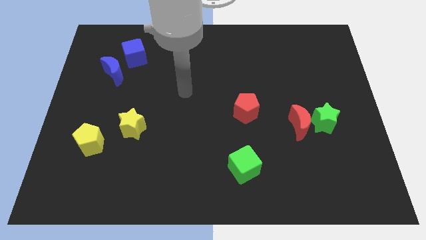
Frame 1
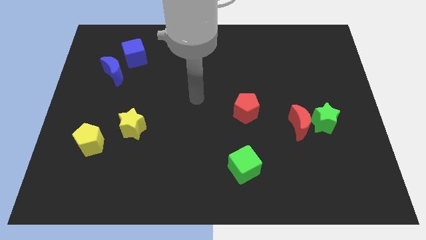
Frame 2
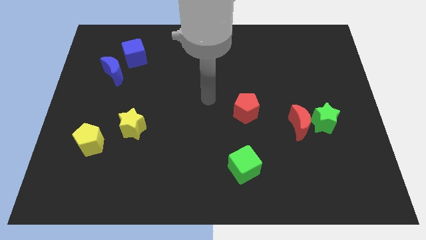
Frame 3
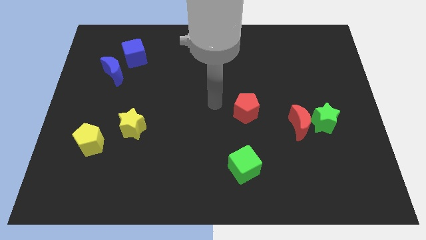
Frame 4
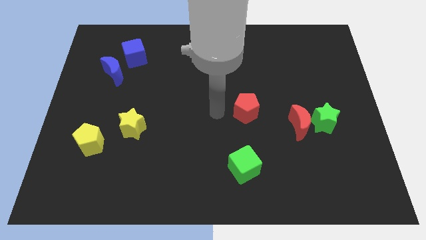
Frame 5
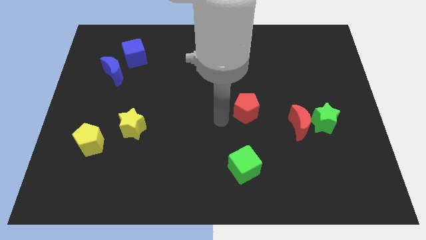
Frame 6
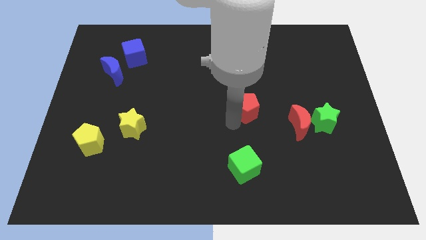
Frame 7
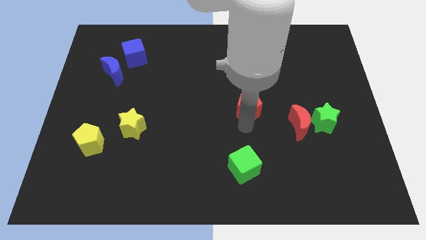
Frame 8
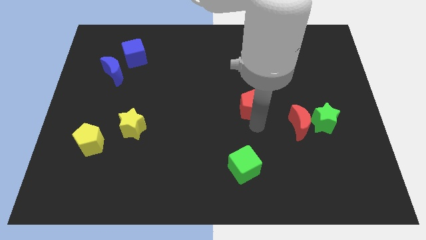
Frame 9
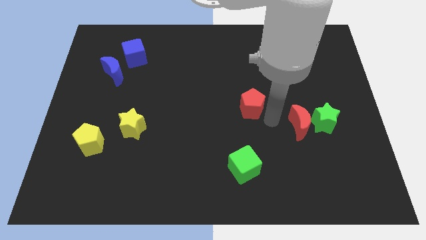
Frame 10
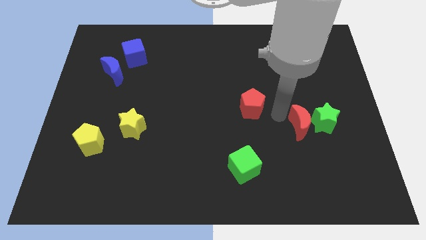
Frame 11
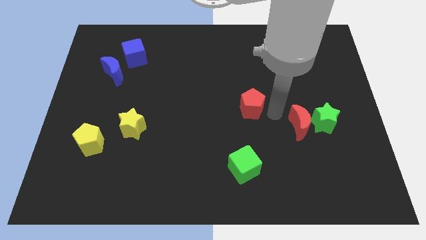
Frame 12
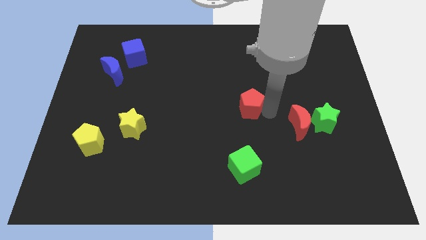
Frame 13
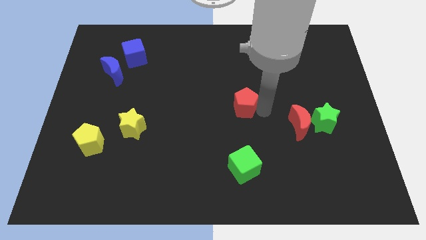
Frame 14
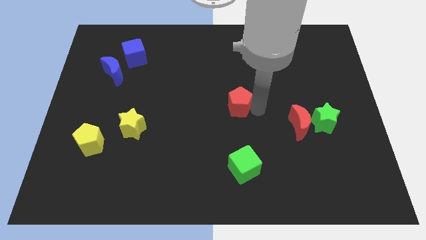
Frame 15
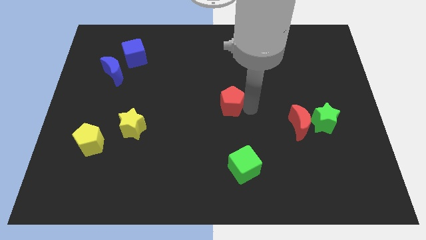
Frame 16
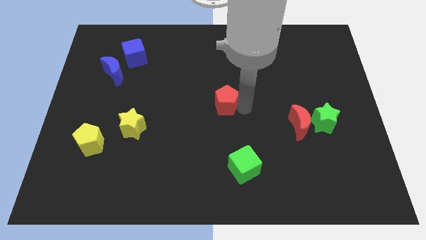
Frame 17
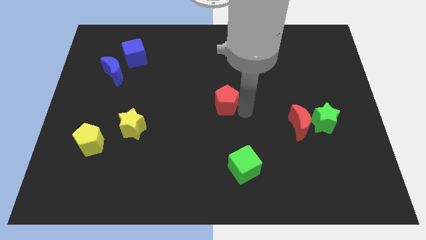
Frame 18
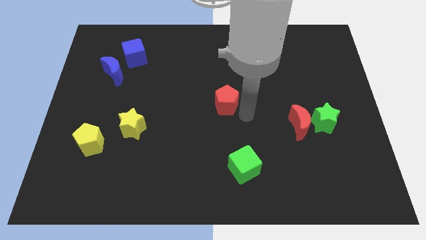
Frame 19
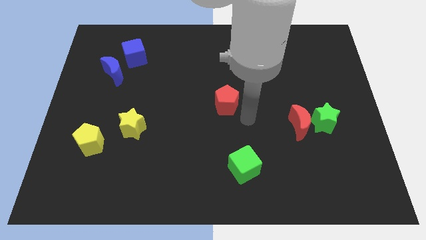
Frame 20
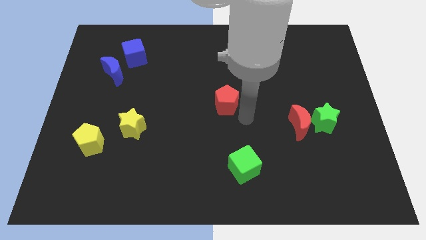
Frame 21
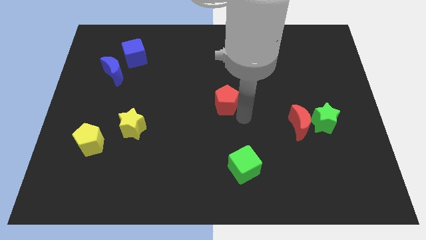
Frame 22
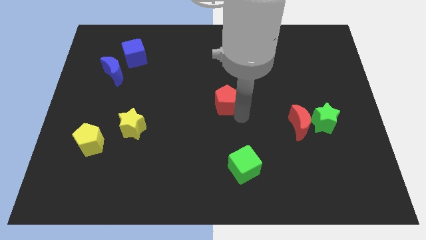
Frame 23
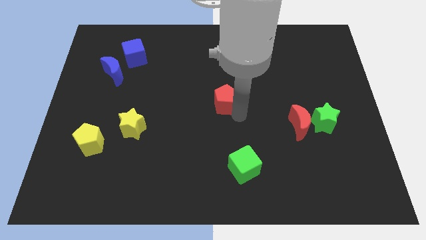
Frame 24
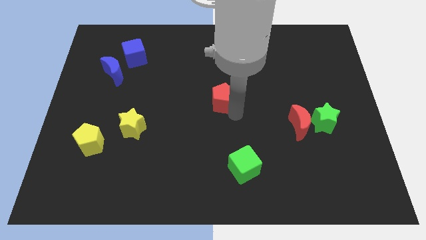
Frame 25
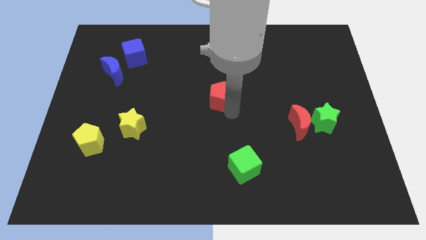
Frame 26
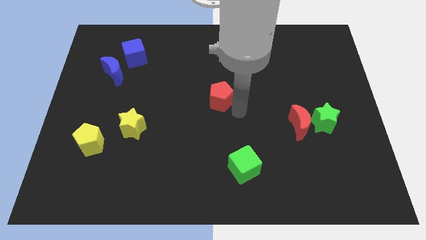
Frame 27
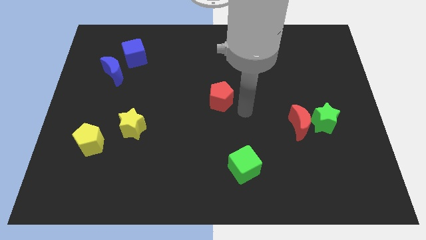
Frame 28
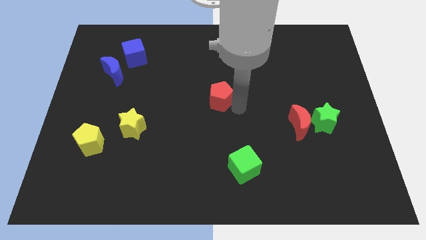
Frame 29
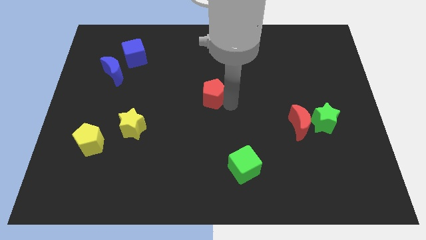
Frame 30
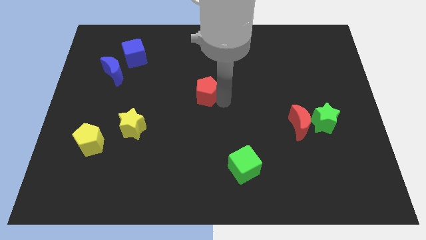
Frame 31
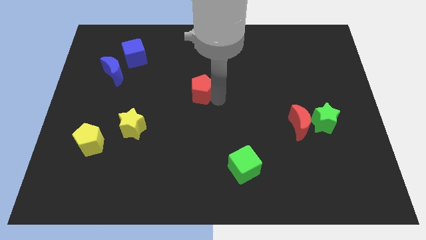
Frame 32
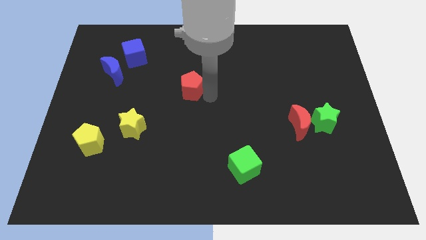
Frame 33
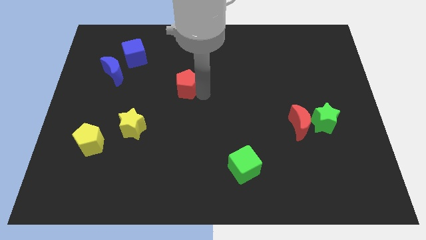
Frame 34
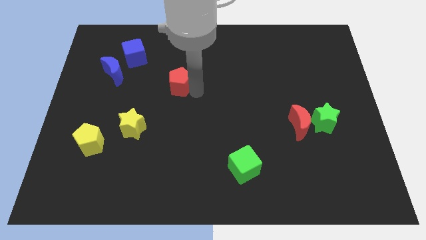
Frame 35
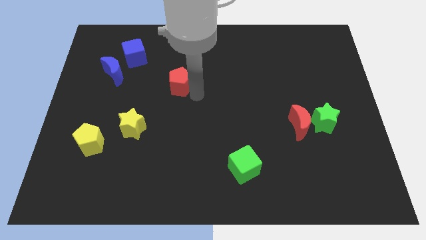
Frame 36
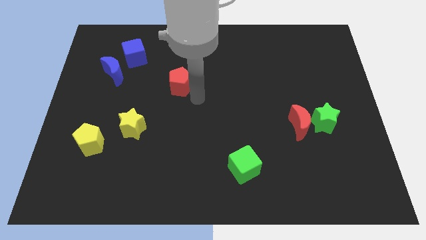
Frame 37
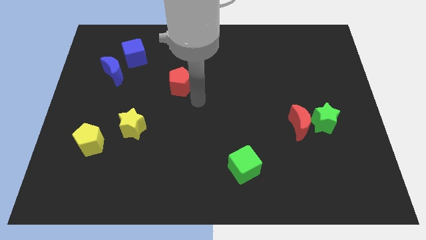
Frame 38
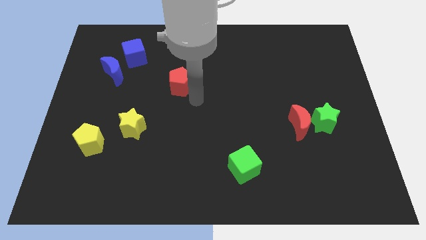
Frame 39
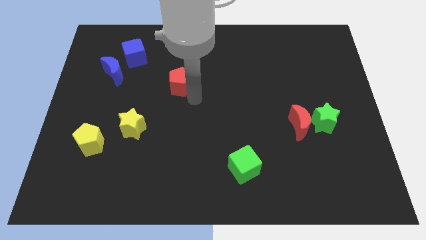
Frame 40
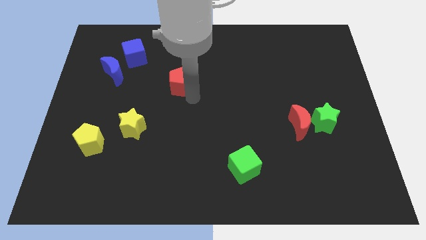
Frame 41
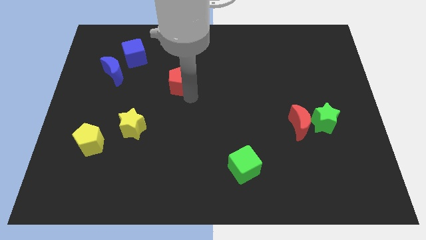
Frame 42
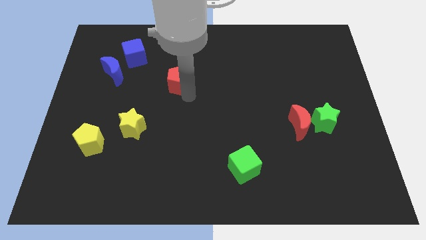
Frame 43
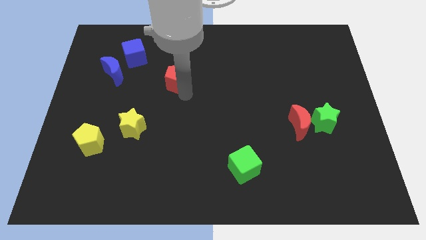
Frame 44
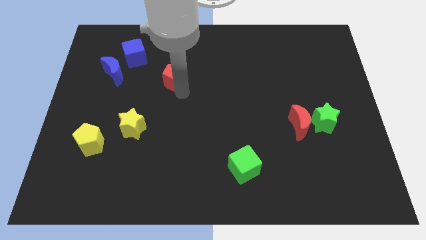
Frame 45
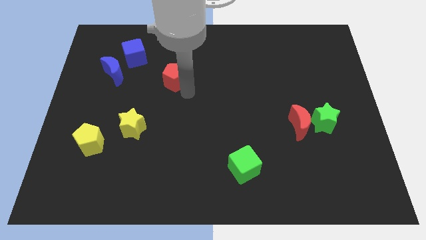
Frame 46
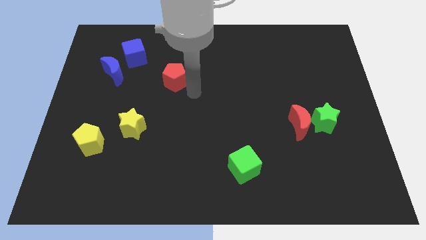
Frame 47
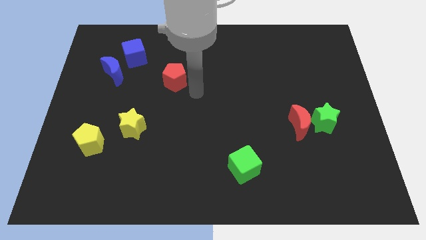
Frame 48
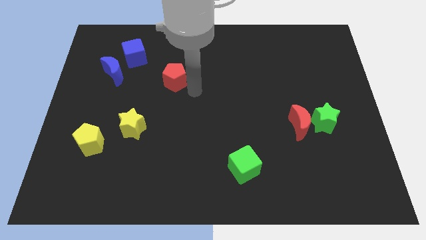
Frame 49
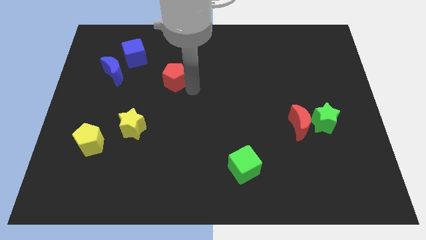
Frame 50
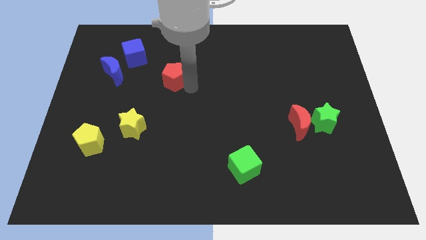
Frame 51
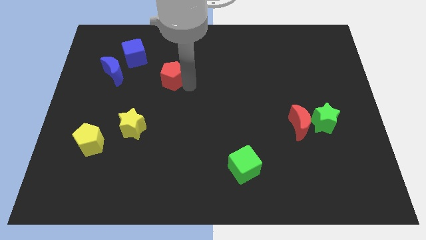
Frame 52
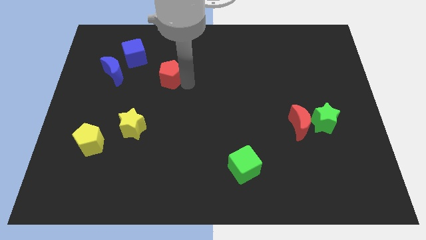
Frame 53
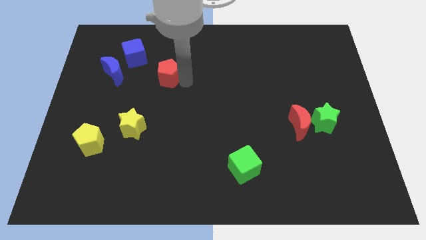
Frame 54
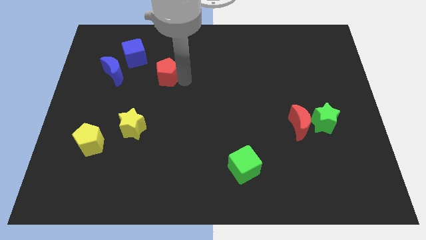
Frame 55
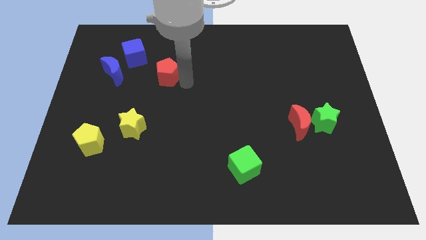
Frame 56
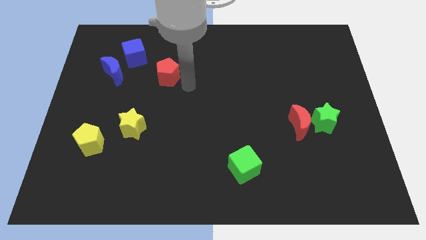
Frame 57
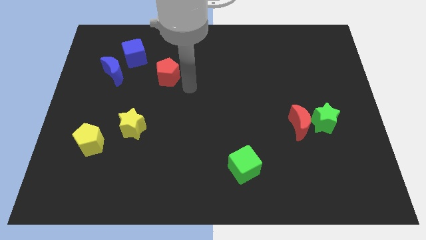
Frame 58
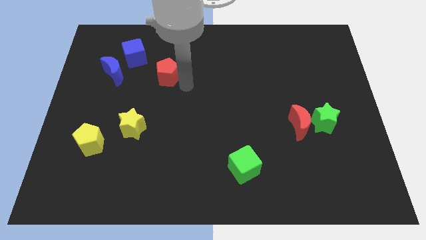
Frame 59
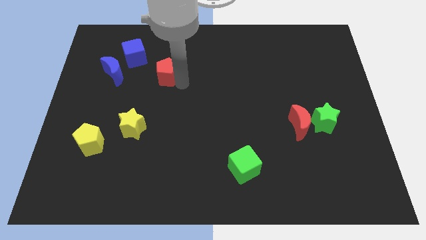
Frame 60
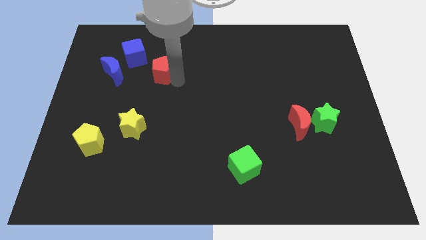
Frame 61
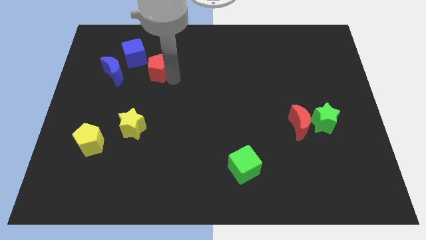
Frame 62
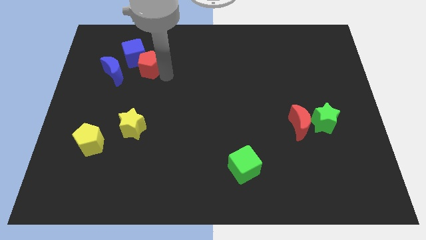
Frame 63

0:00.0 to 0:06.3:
put the red pentagon close to the blue cube

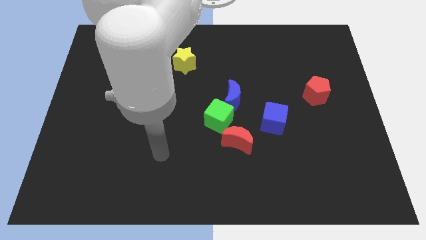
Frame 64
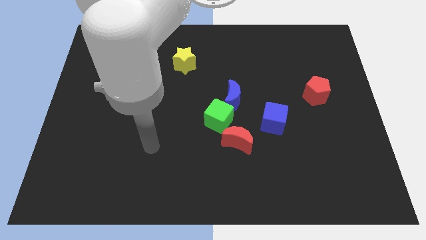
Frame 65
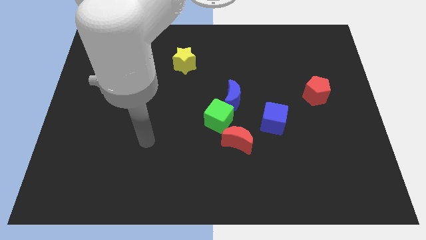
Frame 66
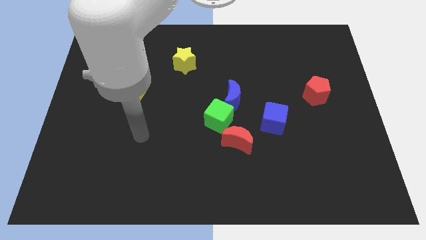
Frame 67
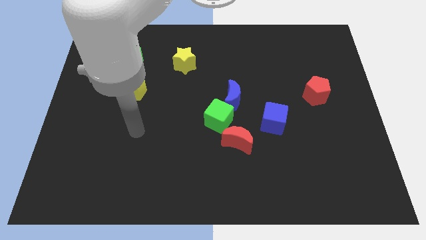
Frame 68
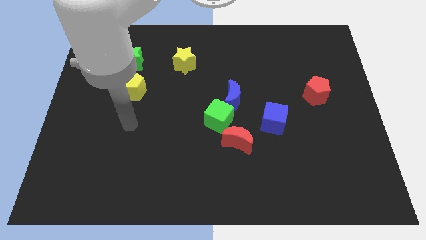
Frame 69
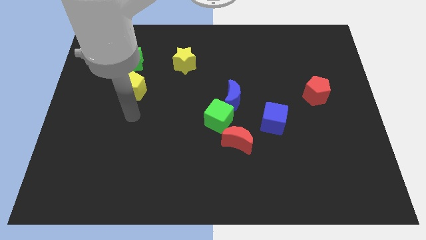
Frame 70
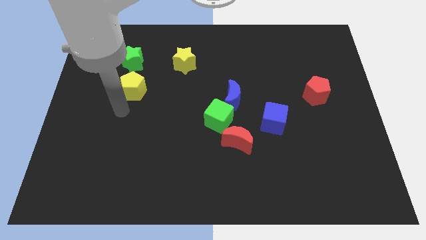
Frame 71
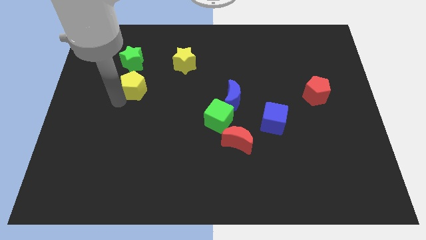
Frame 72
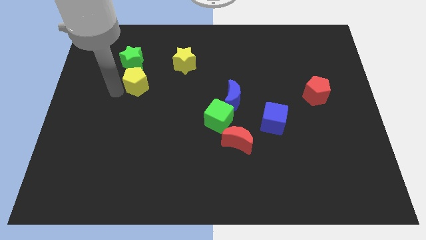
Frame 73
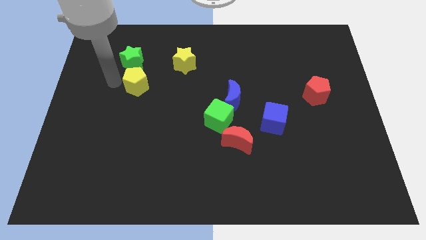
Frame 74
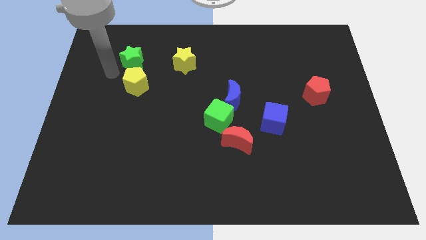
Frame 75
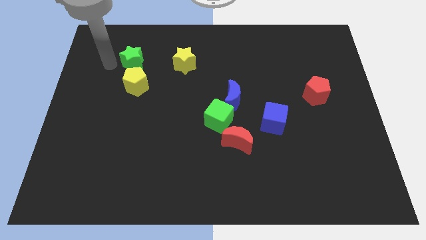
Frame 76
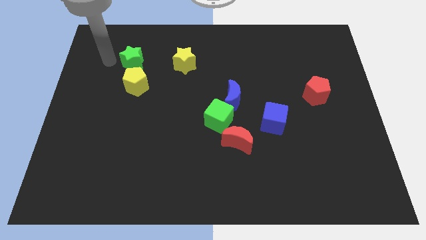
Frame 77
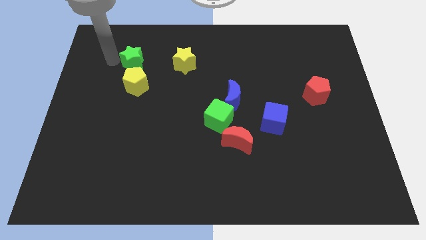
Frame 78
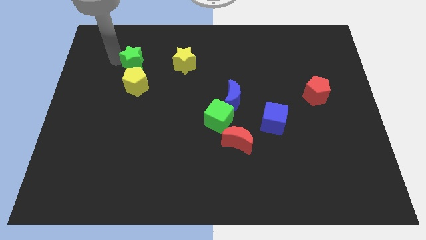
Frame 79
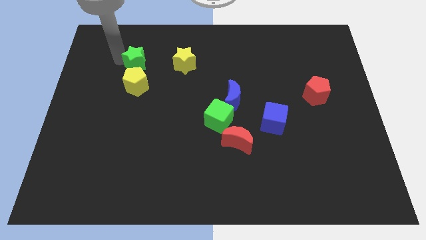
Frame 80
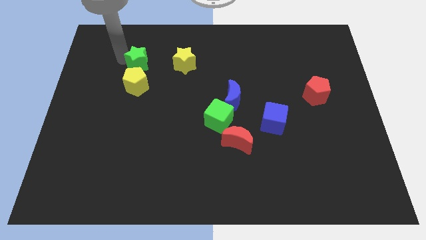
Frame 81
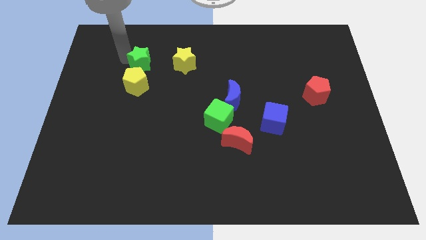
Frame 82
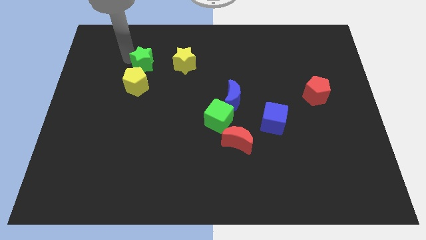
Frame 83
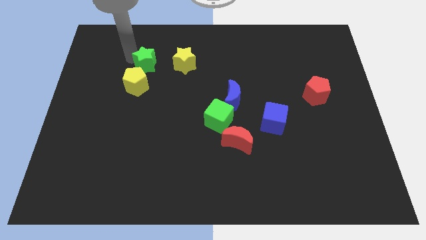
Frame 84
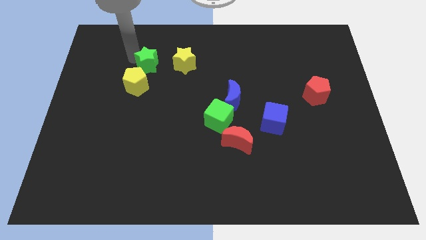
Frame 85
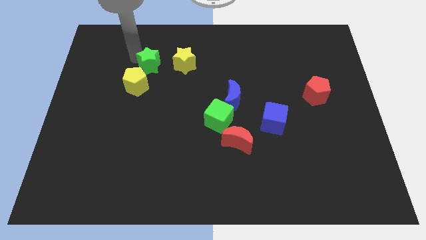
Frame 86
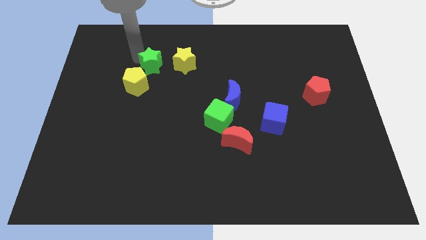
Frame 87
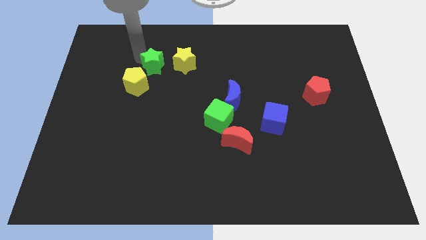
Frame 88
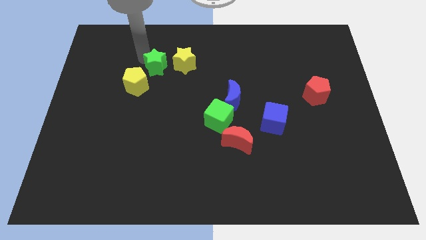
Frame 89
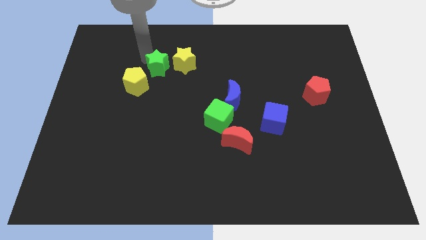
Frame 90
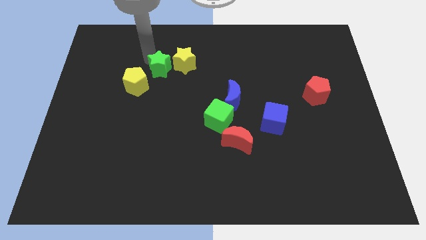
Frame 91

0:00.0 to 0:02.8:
push the green star close to the yellow star
